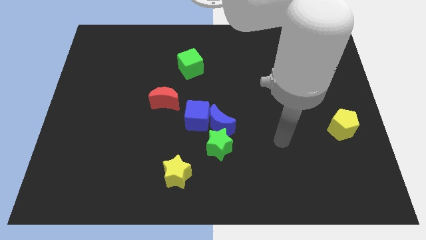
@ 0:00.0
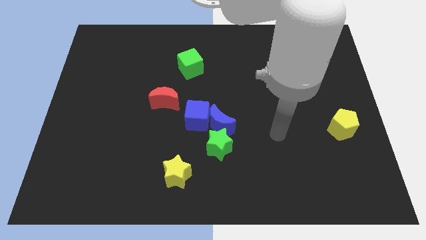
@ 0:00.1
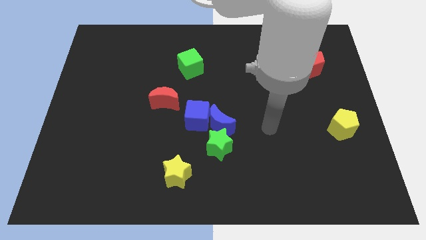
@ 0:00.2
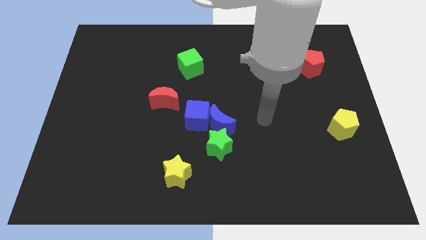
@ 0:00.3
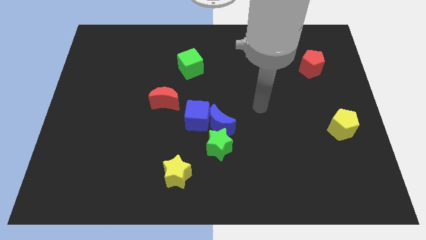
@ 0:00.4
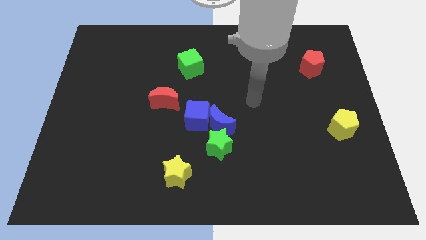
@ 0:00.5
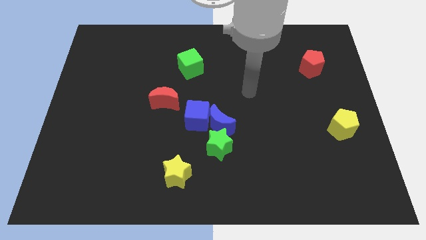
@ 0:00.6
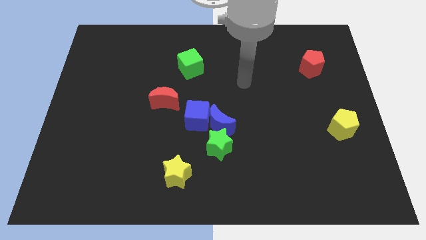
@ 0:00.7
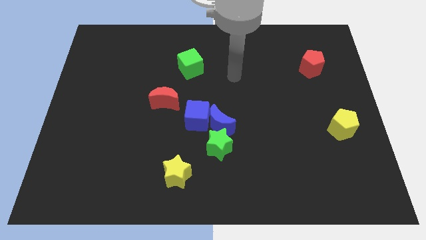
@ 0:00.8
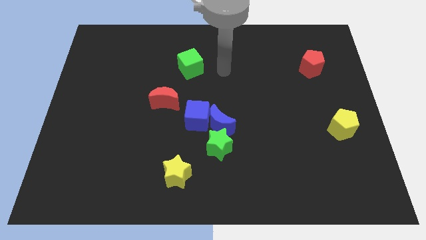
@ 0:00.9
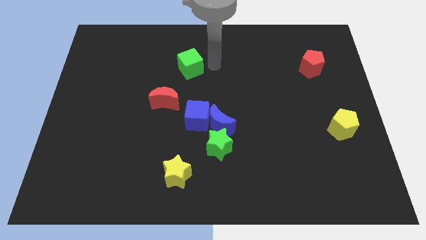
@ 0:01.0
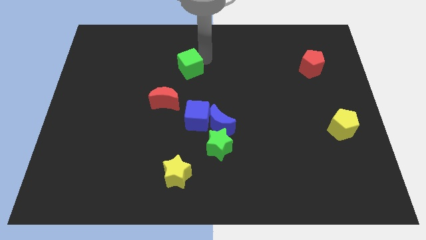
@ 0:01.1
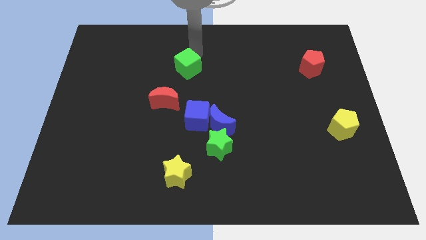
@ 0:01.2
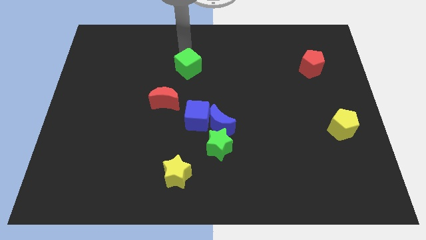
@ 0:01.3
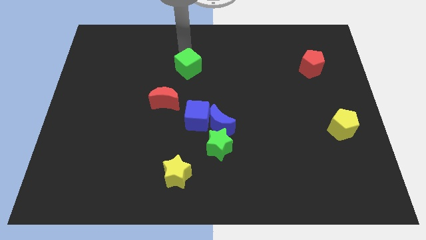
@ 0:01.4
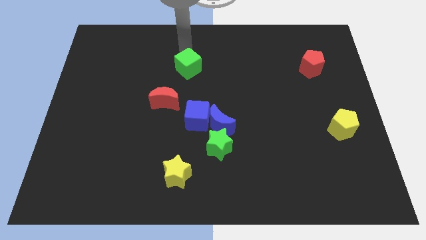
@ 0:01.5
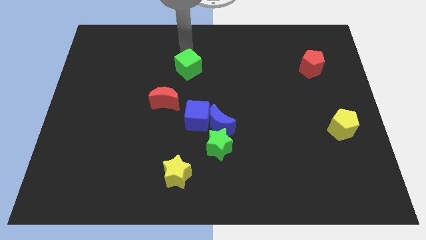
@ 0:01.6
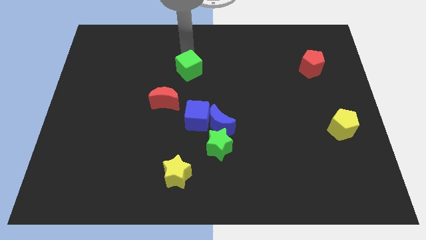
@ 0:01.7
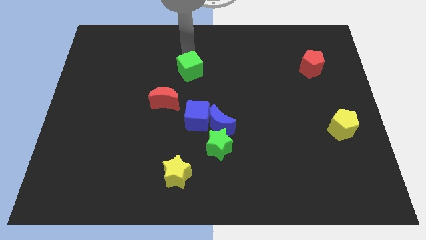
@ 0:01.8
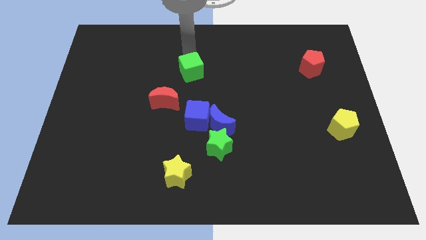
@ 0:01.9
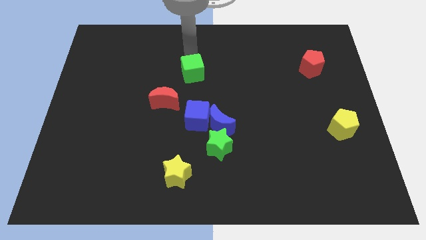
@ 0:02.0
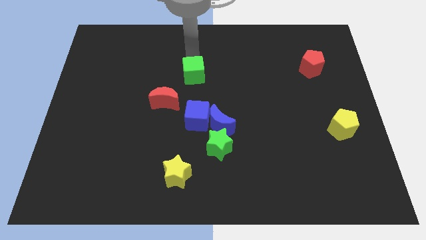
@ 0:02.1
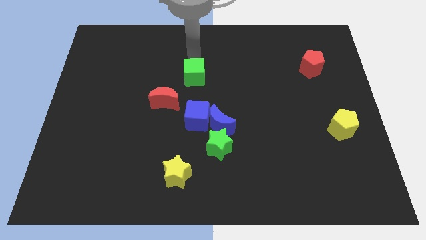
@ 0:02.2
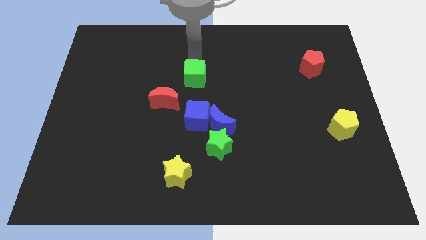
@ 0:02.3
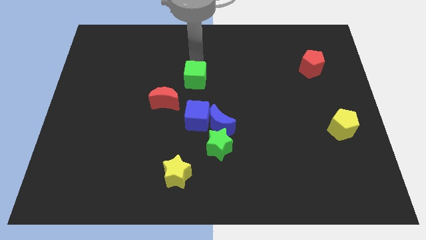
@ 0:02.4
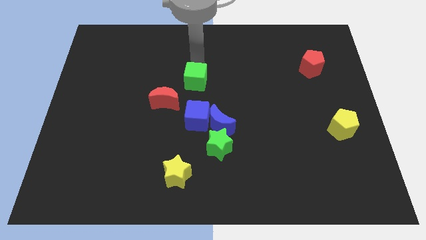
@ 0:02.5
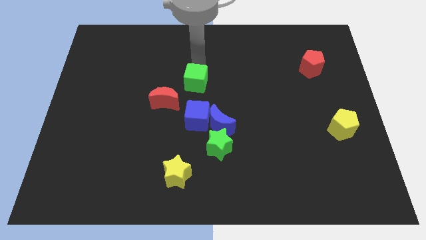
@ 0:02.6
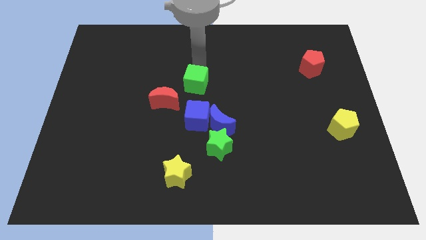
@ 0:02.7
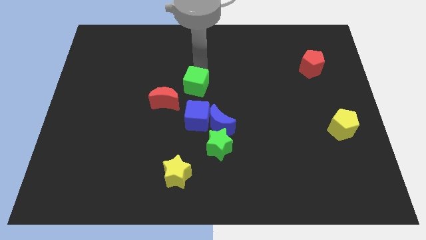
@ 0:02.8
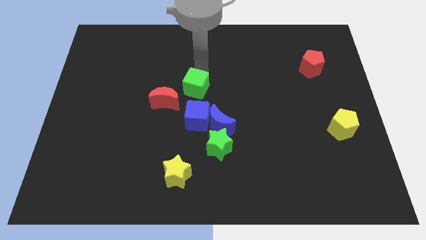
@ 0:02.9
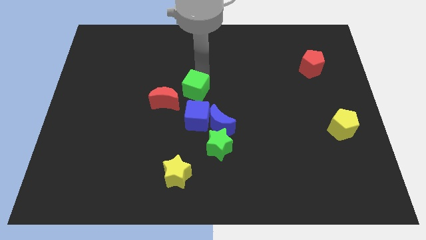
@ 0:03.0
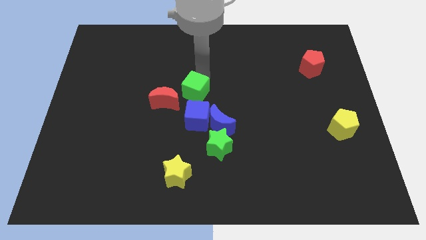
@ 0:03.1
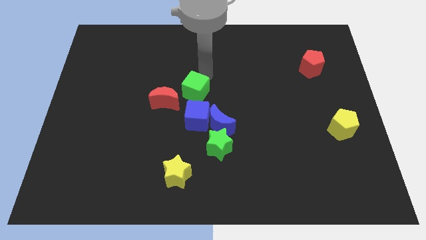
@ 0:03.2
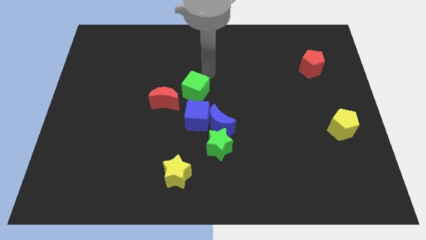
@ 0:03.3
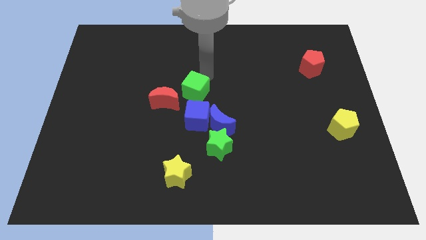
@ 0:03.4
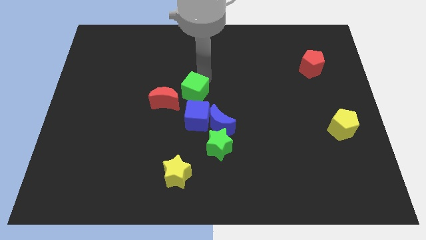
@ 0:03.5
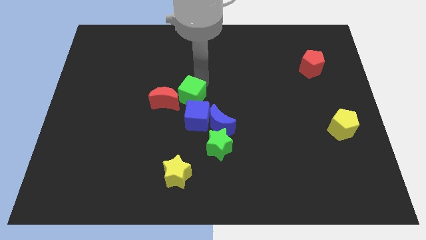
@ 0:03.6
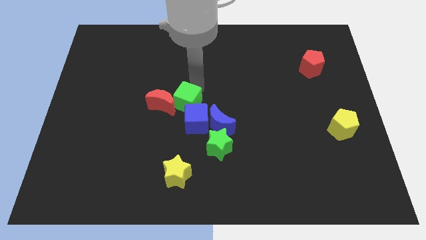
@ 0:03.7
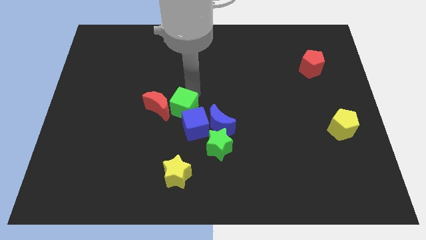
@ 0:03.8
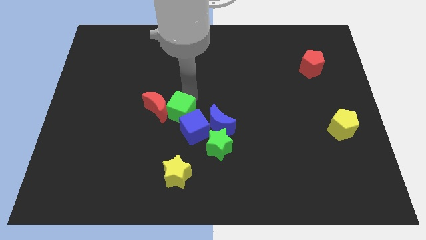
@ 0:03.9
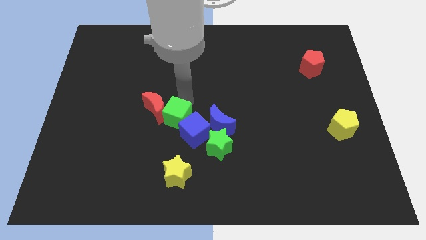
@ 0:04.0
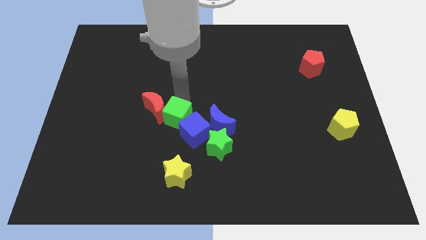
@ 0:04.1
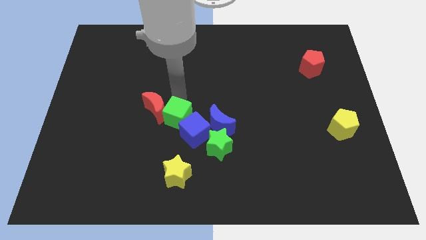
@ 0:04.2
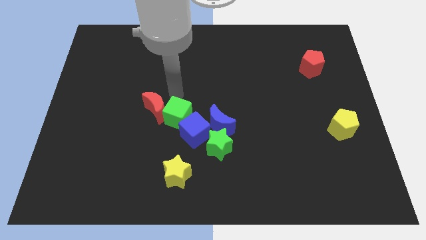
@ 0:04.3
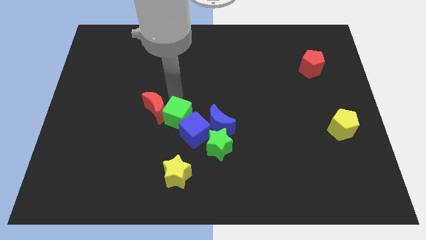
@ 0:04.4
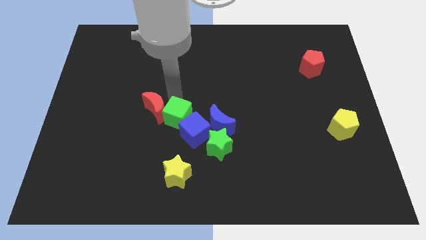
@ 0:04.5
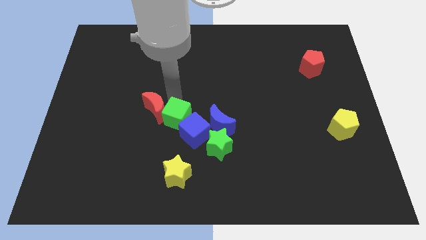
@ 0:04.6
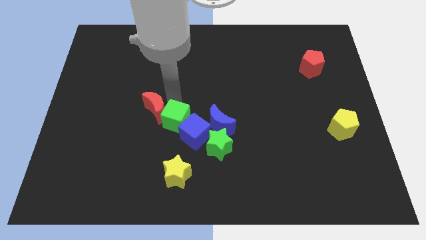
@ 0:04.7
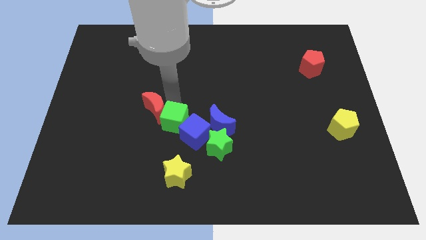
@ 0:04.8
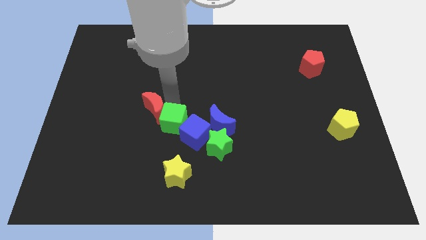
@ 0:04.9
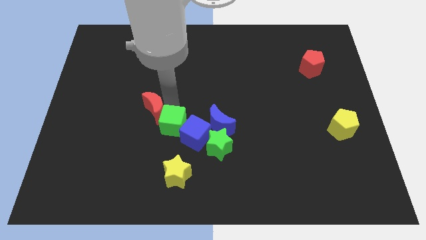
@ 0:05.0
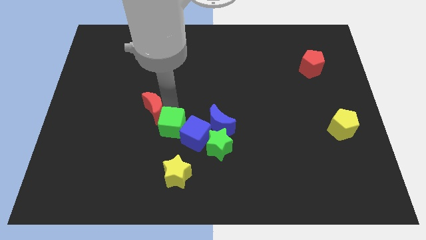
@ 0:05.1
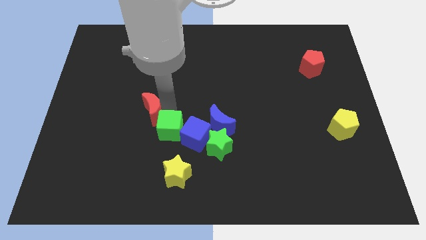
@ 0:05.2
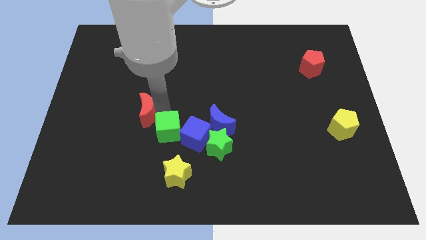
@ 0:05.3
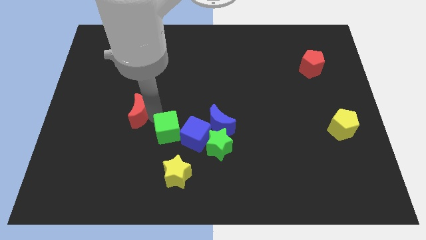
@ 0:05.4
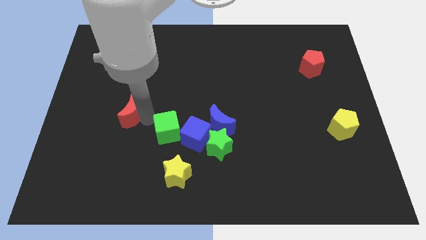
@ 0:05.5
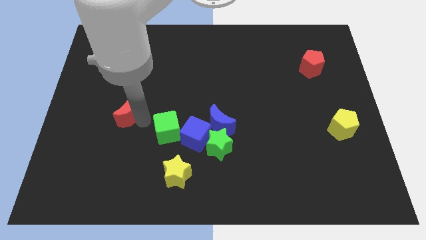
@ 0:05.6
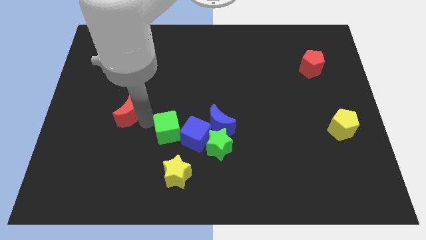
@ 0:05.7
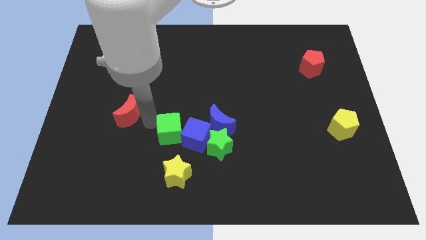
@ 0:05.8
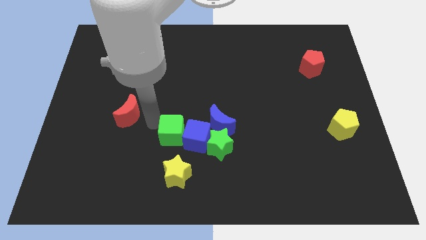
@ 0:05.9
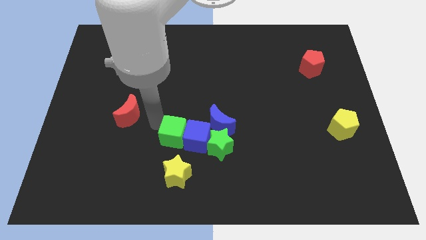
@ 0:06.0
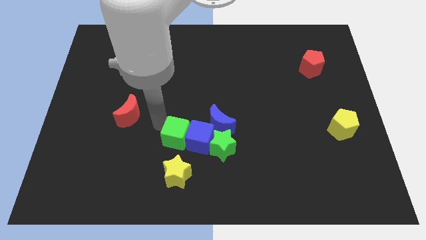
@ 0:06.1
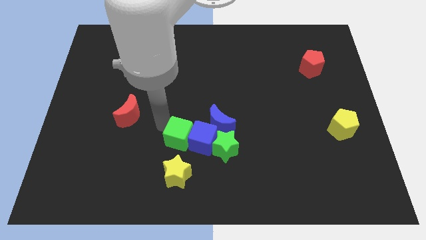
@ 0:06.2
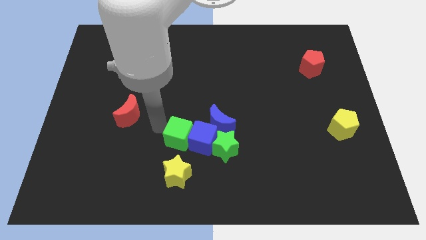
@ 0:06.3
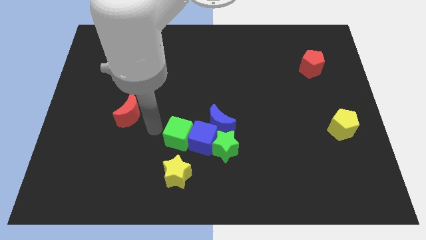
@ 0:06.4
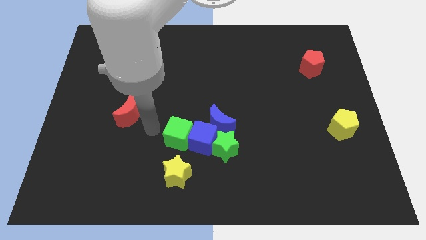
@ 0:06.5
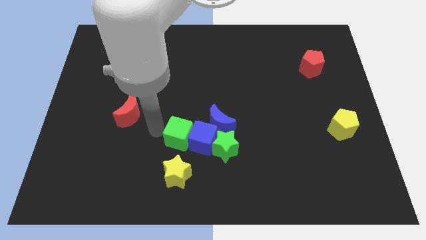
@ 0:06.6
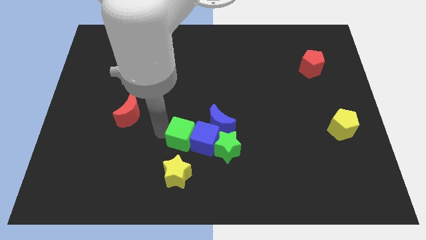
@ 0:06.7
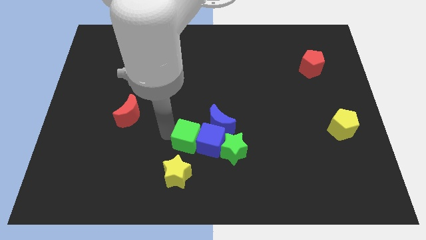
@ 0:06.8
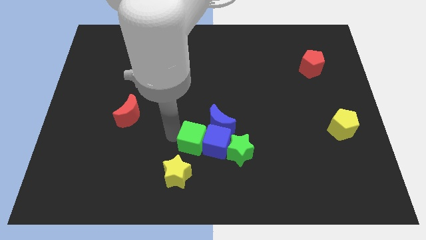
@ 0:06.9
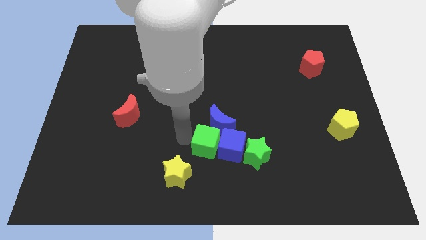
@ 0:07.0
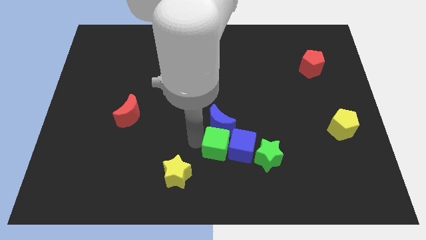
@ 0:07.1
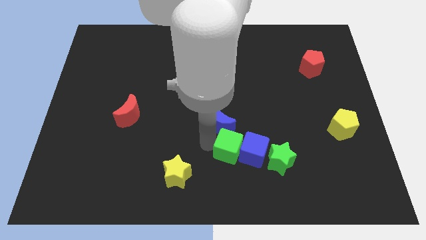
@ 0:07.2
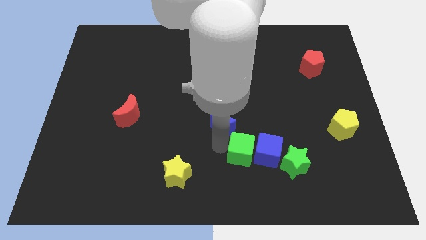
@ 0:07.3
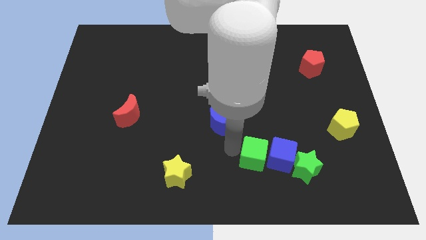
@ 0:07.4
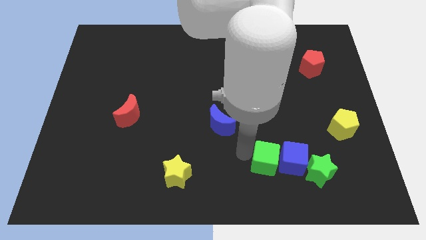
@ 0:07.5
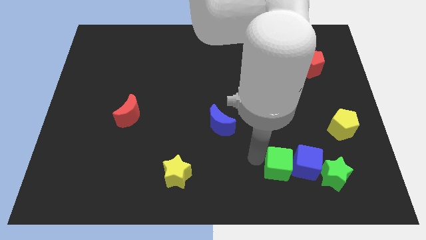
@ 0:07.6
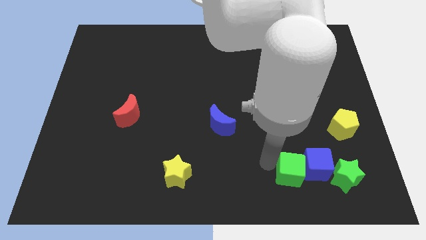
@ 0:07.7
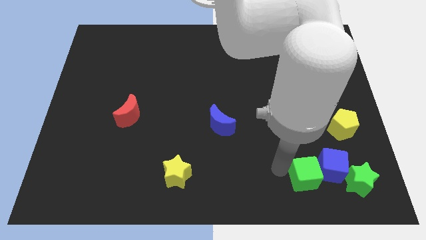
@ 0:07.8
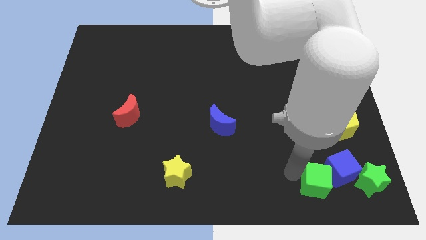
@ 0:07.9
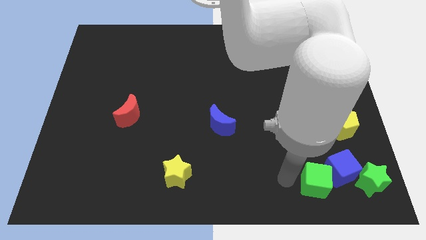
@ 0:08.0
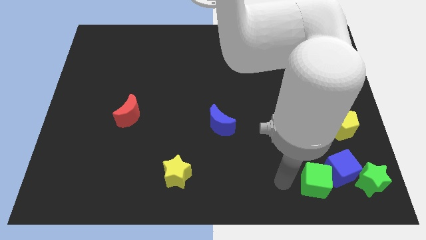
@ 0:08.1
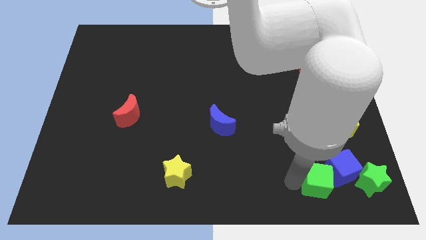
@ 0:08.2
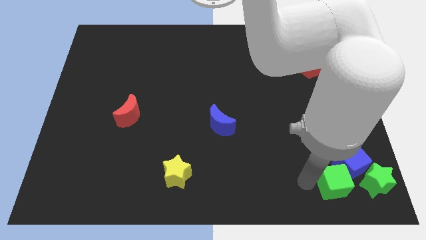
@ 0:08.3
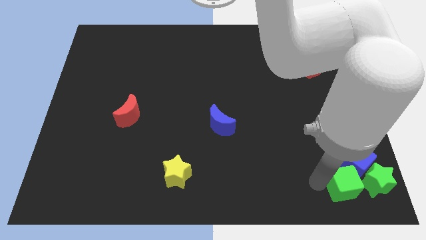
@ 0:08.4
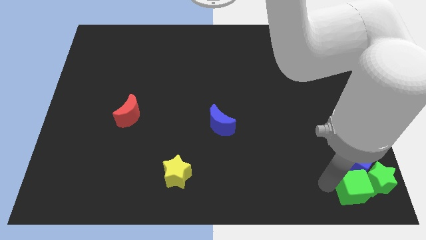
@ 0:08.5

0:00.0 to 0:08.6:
put the green cube towards the green star
